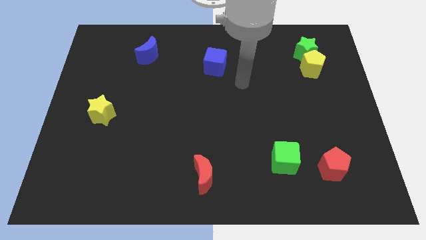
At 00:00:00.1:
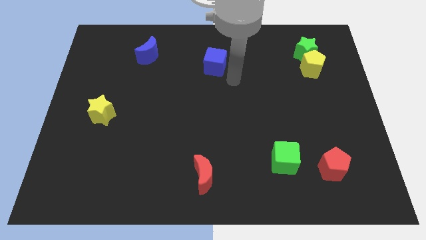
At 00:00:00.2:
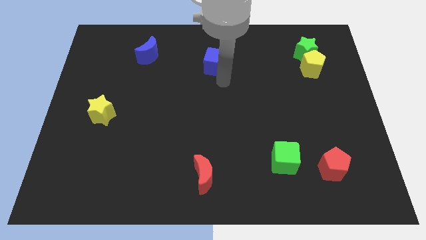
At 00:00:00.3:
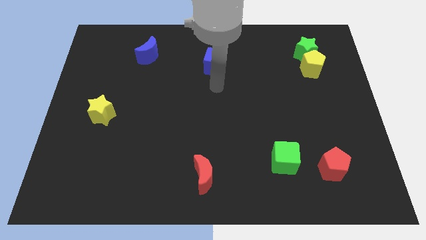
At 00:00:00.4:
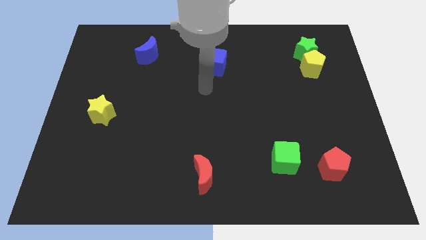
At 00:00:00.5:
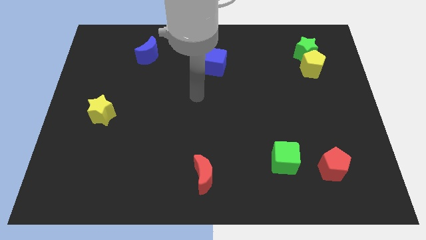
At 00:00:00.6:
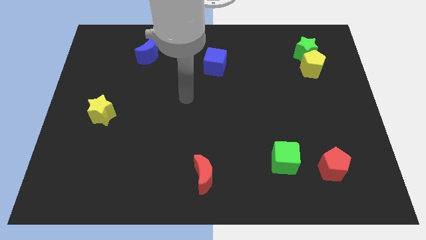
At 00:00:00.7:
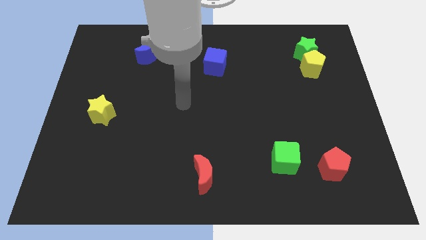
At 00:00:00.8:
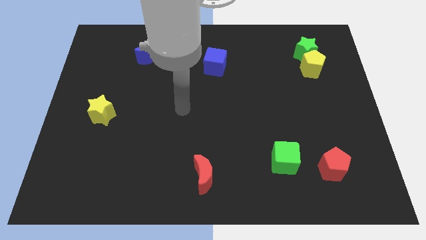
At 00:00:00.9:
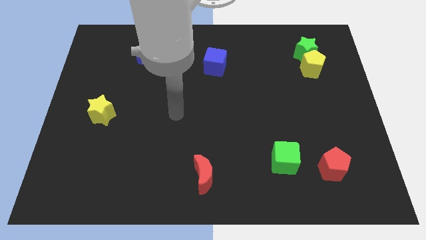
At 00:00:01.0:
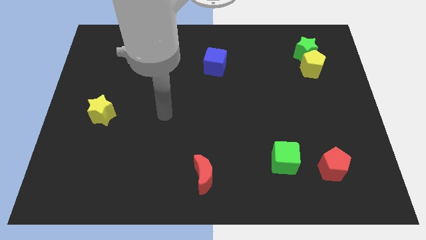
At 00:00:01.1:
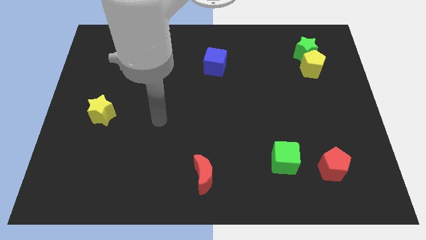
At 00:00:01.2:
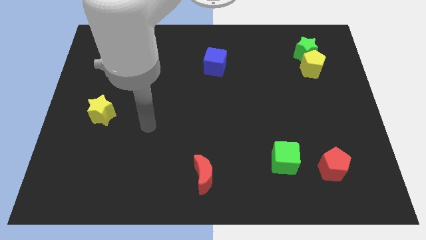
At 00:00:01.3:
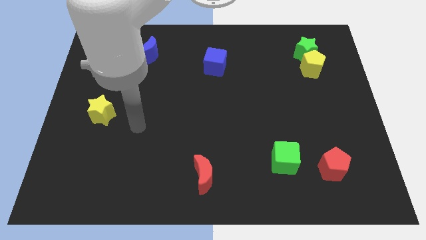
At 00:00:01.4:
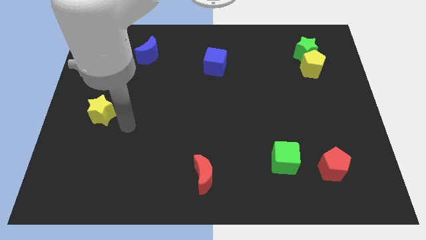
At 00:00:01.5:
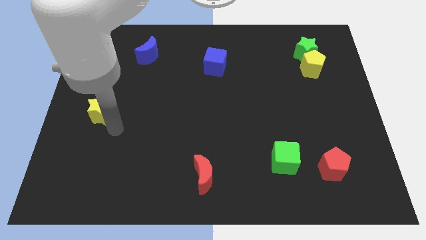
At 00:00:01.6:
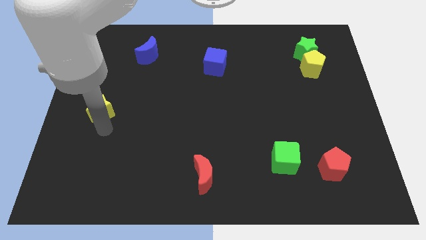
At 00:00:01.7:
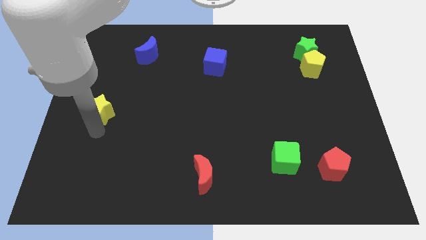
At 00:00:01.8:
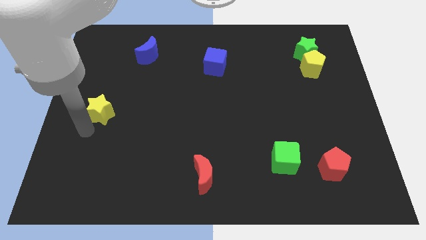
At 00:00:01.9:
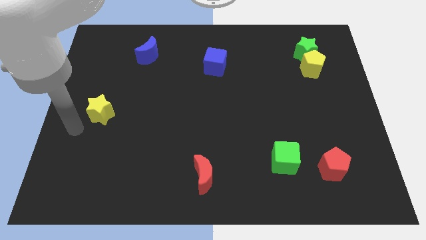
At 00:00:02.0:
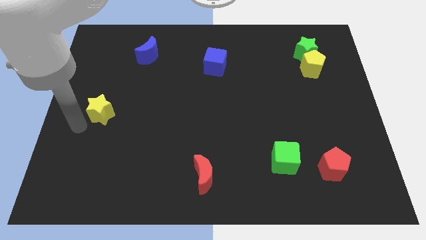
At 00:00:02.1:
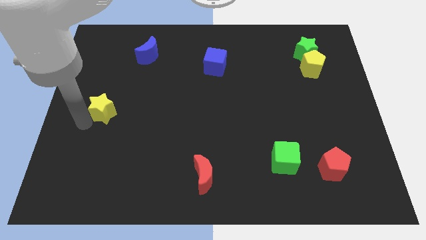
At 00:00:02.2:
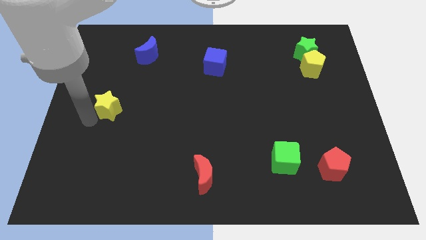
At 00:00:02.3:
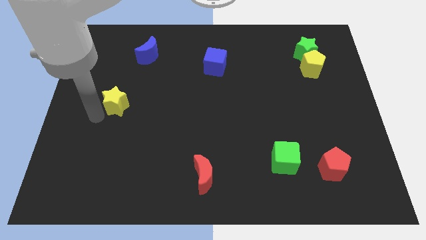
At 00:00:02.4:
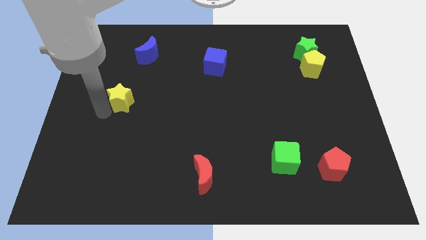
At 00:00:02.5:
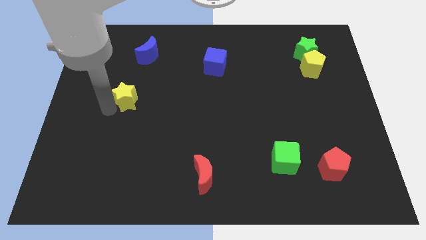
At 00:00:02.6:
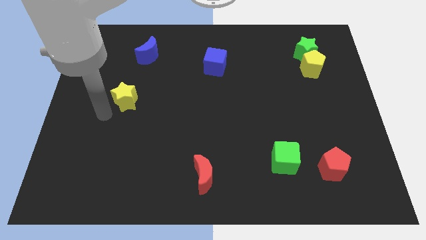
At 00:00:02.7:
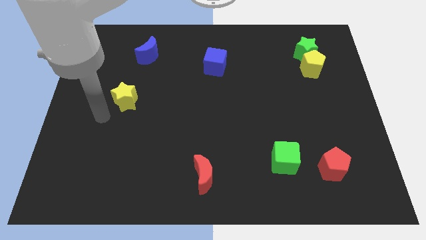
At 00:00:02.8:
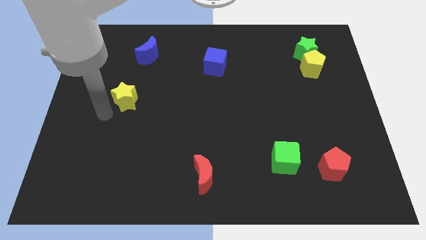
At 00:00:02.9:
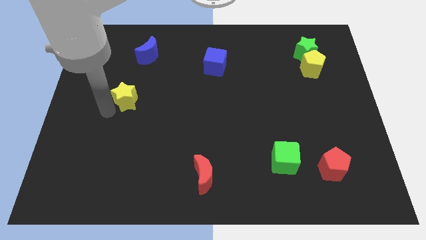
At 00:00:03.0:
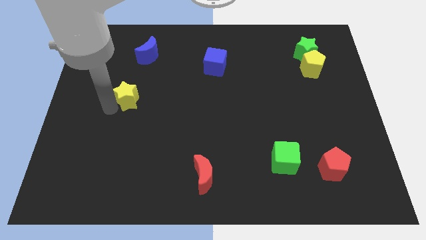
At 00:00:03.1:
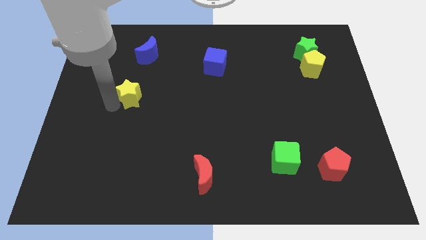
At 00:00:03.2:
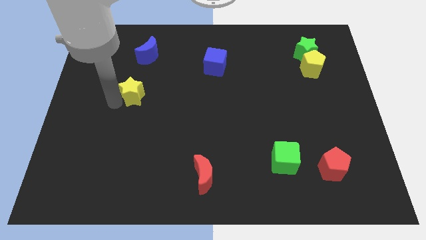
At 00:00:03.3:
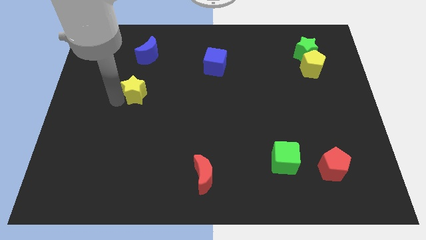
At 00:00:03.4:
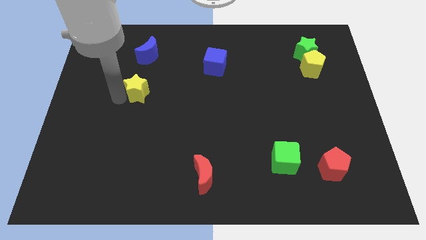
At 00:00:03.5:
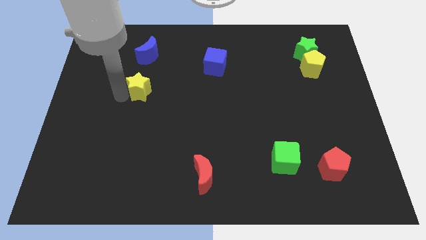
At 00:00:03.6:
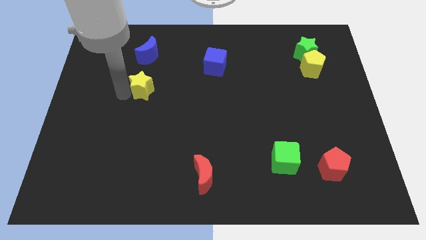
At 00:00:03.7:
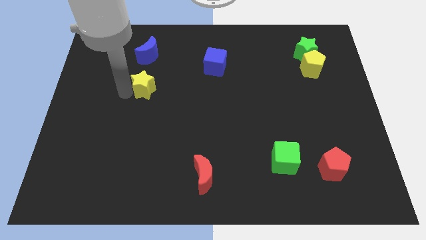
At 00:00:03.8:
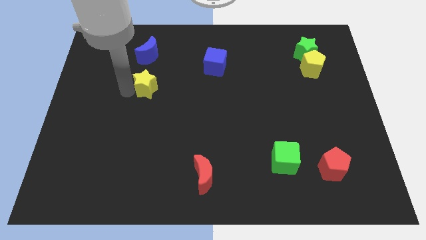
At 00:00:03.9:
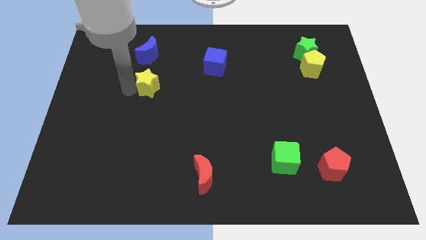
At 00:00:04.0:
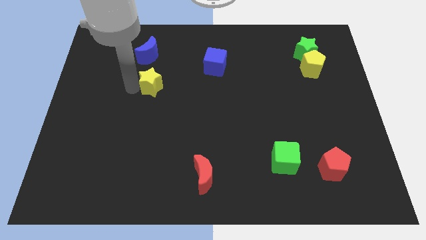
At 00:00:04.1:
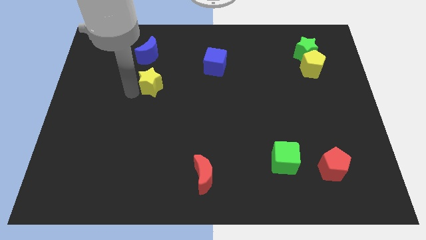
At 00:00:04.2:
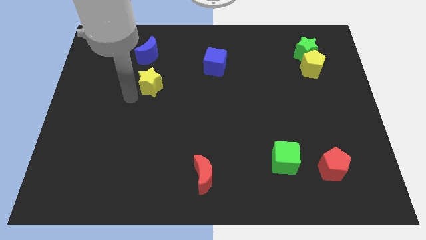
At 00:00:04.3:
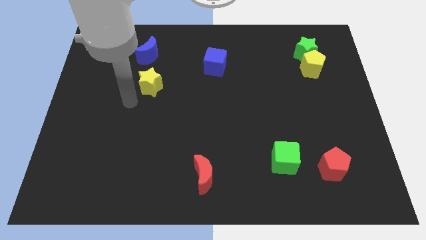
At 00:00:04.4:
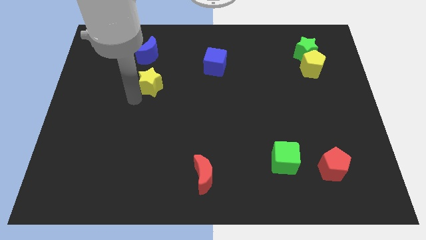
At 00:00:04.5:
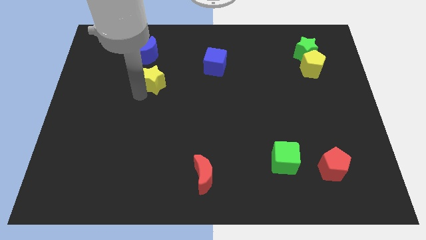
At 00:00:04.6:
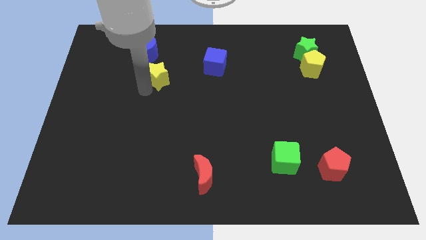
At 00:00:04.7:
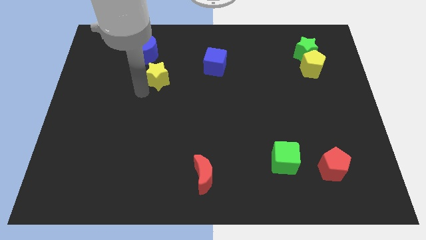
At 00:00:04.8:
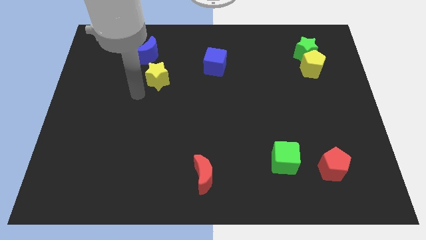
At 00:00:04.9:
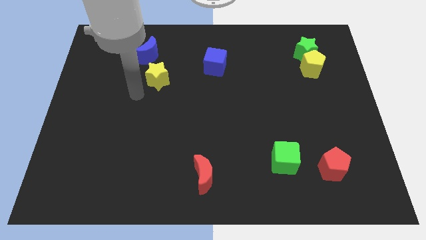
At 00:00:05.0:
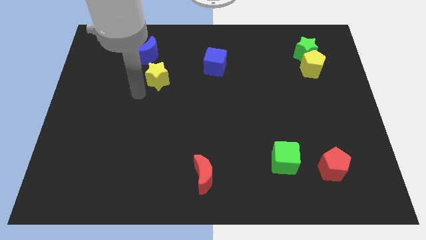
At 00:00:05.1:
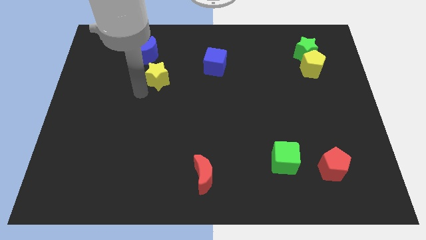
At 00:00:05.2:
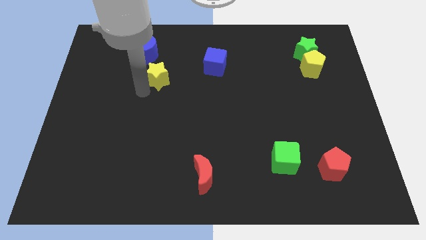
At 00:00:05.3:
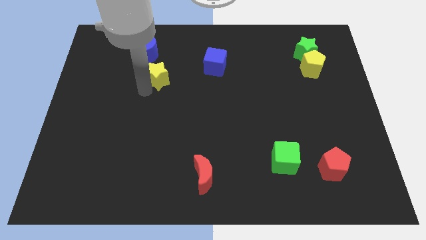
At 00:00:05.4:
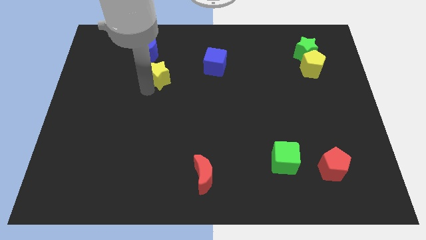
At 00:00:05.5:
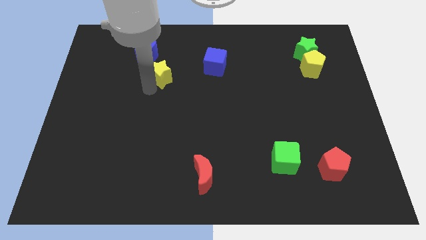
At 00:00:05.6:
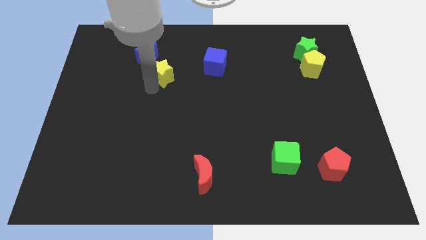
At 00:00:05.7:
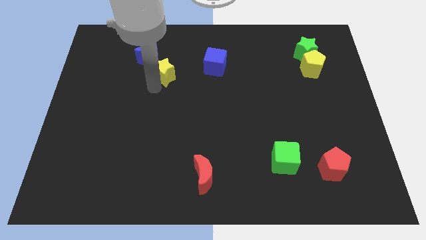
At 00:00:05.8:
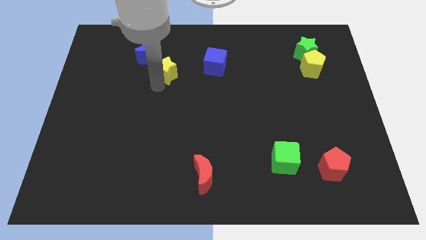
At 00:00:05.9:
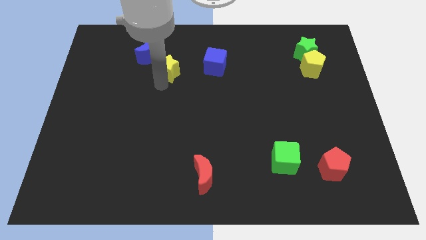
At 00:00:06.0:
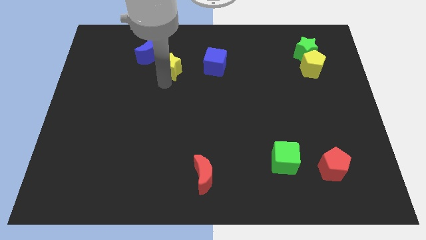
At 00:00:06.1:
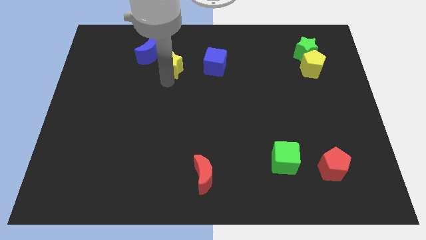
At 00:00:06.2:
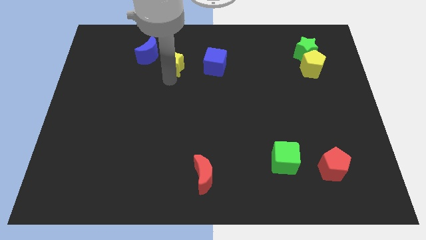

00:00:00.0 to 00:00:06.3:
slide the yellow star just right of the blue moon
